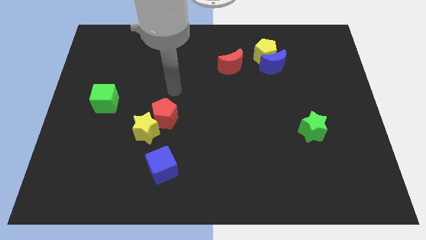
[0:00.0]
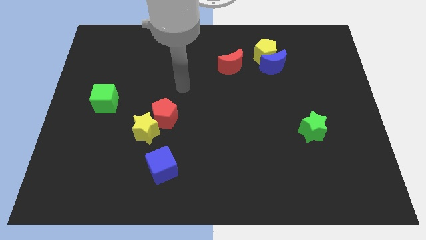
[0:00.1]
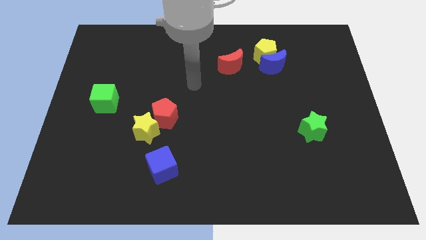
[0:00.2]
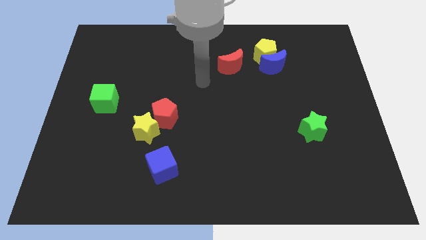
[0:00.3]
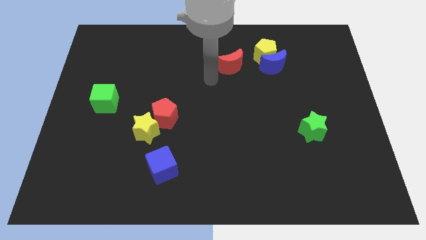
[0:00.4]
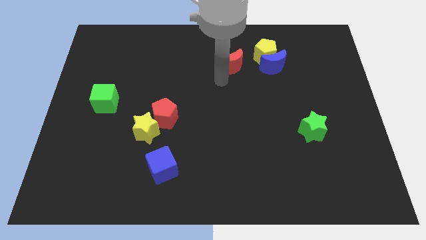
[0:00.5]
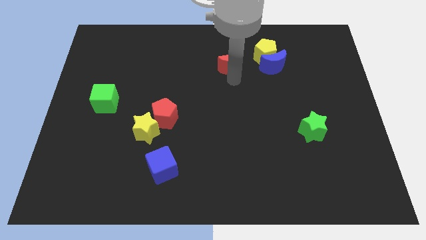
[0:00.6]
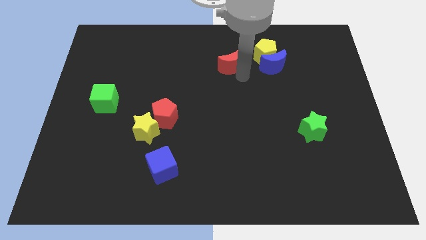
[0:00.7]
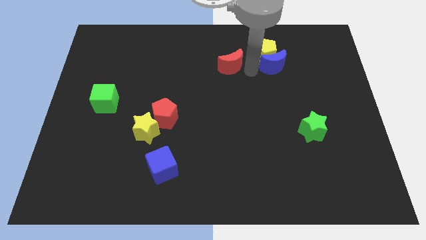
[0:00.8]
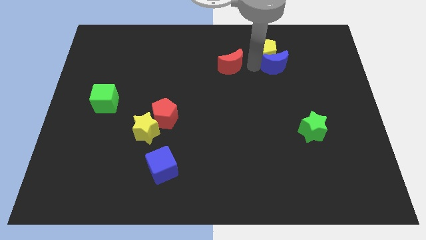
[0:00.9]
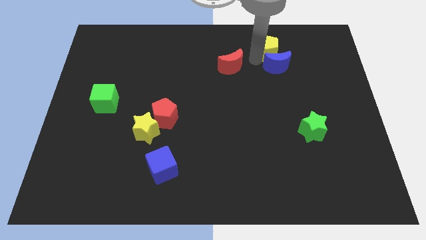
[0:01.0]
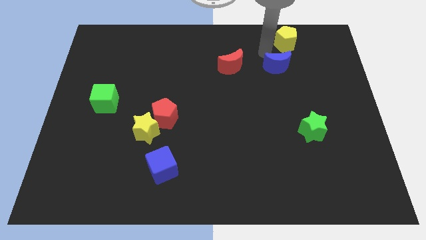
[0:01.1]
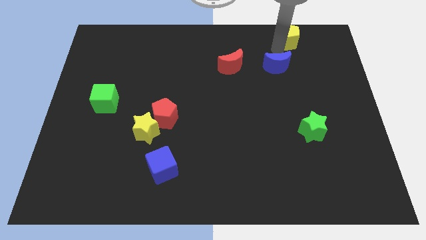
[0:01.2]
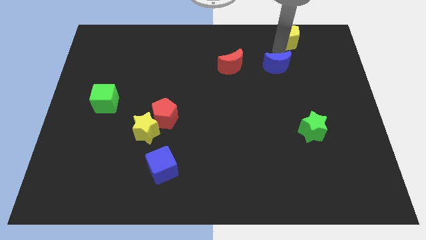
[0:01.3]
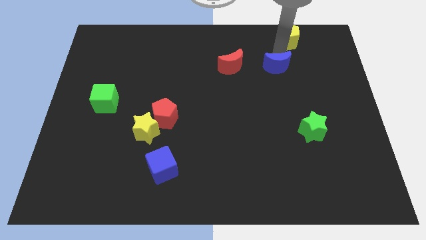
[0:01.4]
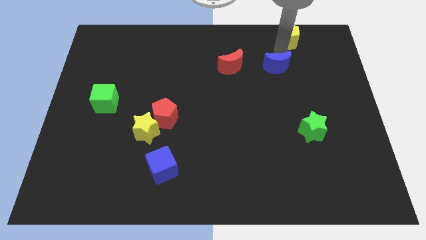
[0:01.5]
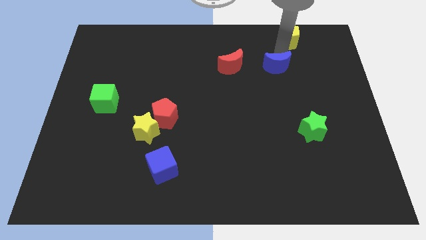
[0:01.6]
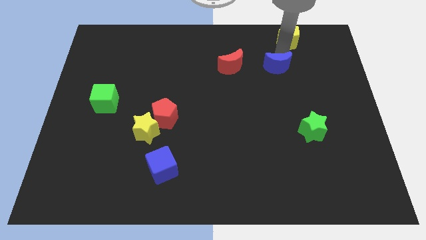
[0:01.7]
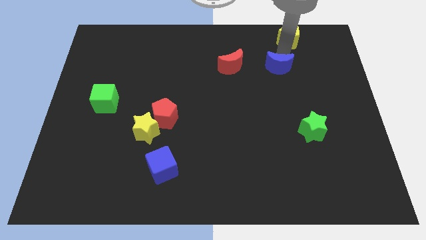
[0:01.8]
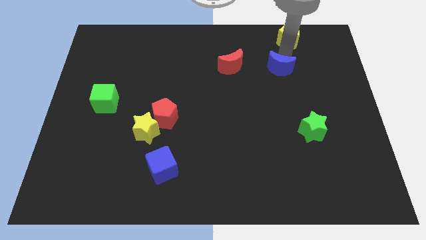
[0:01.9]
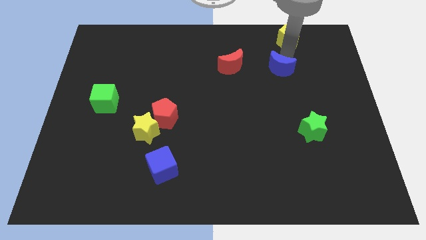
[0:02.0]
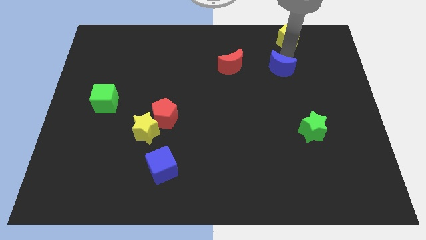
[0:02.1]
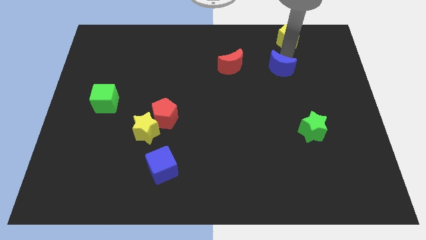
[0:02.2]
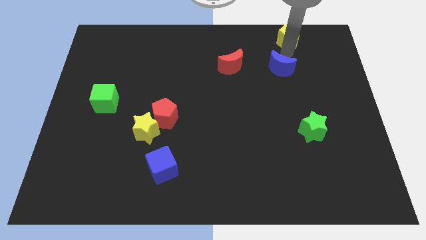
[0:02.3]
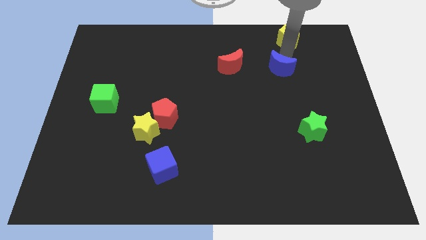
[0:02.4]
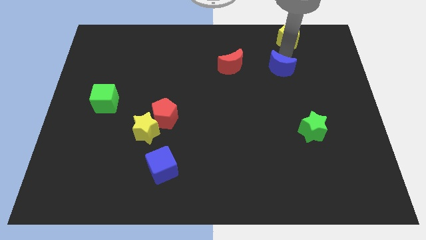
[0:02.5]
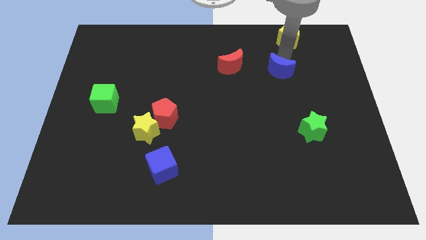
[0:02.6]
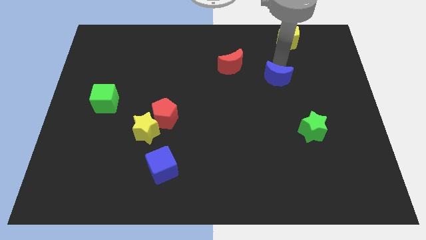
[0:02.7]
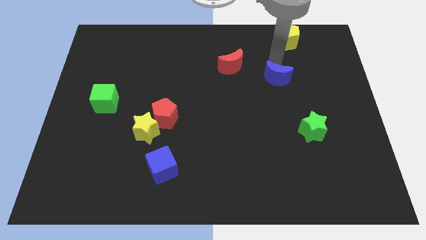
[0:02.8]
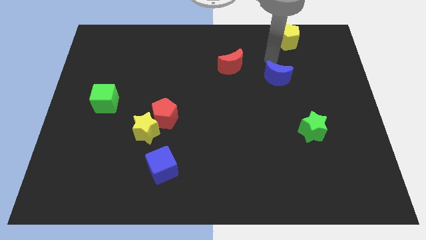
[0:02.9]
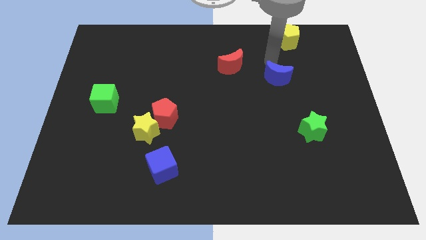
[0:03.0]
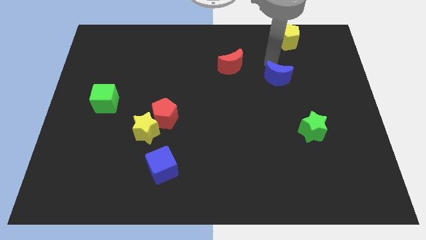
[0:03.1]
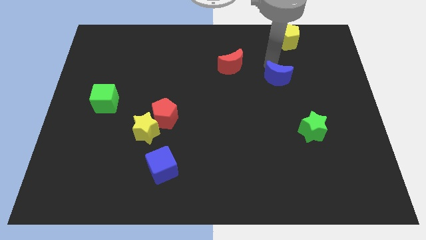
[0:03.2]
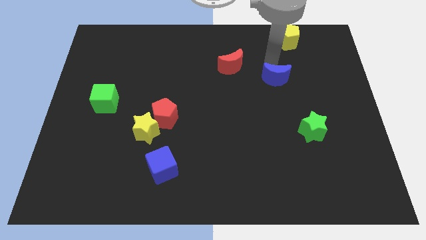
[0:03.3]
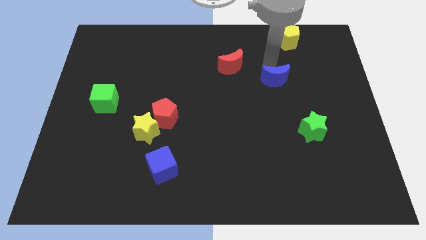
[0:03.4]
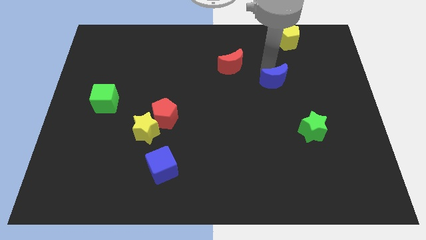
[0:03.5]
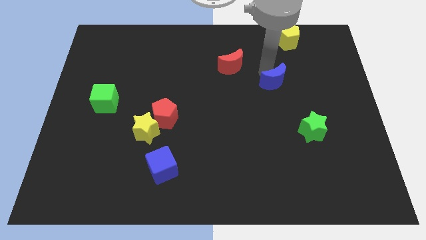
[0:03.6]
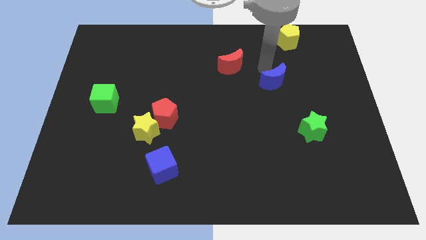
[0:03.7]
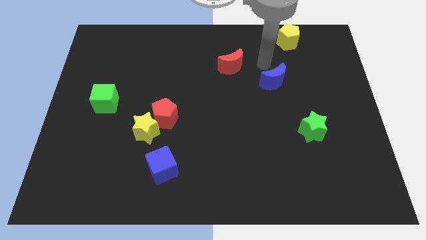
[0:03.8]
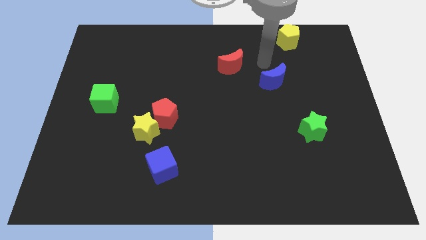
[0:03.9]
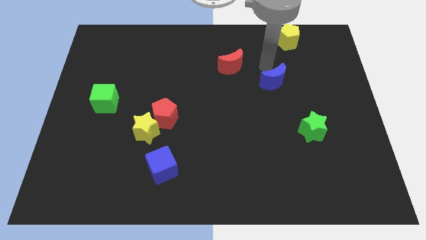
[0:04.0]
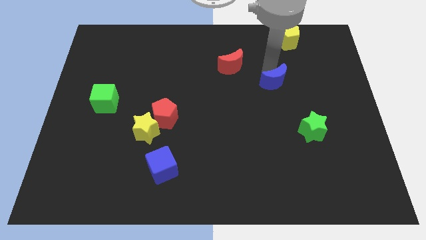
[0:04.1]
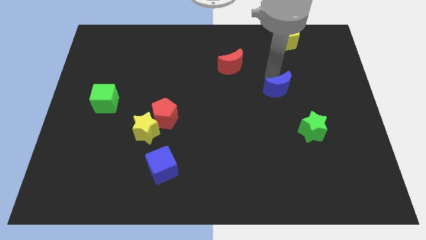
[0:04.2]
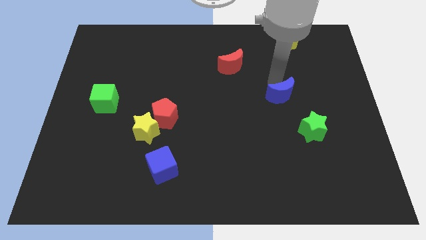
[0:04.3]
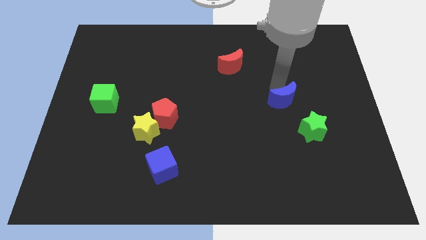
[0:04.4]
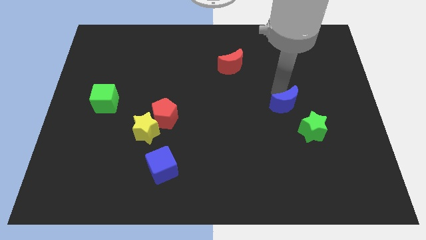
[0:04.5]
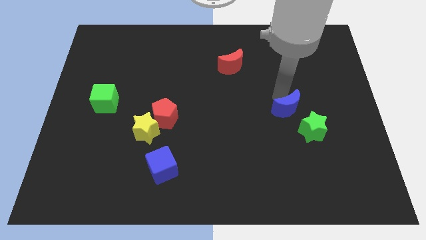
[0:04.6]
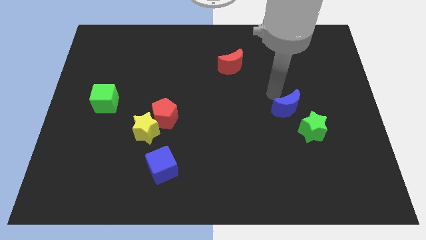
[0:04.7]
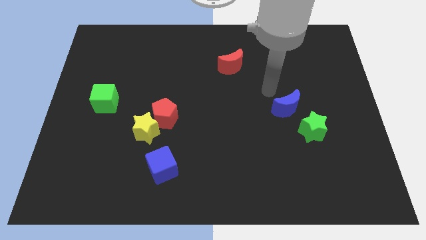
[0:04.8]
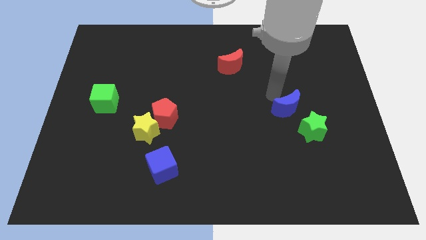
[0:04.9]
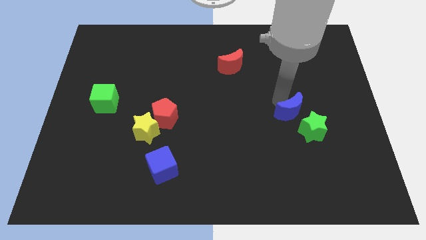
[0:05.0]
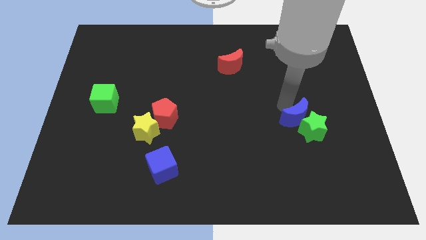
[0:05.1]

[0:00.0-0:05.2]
slide the blue moon towards the green star

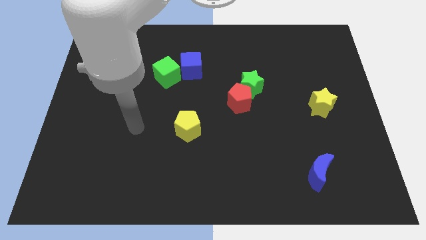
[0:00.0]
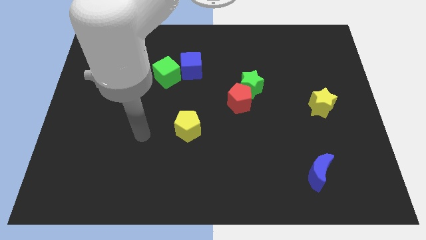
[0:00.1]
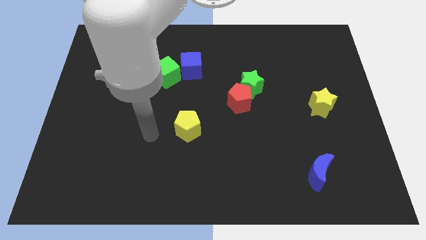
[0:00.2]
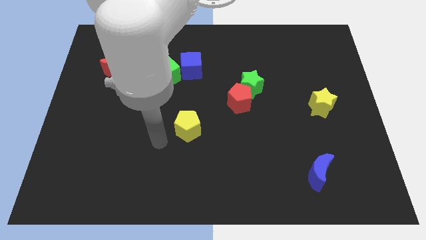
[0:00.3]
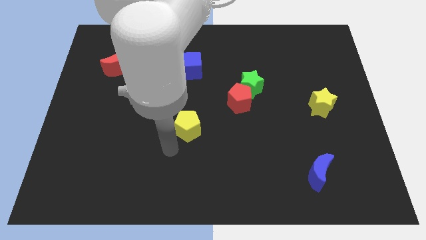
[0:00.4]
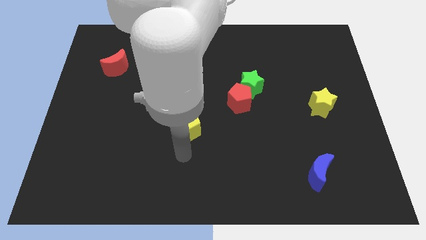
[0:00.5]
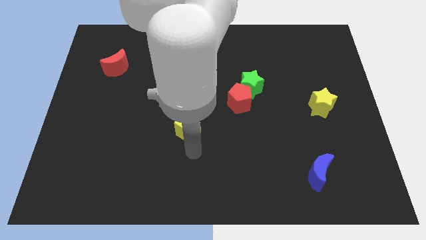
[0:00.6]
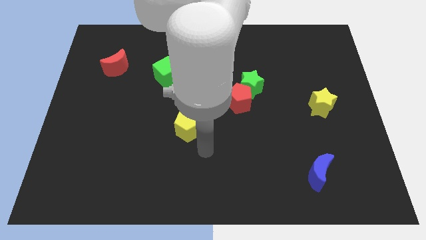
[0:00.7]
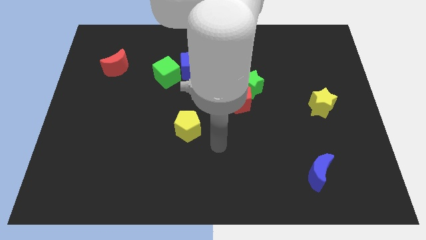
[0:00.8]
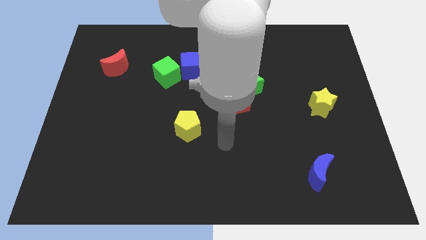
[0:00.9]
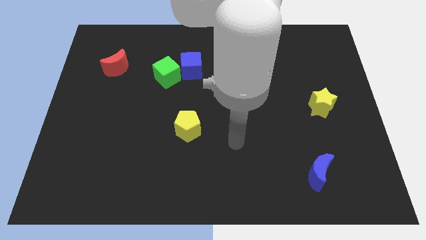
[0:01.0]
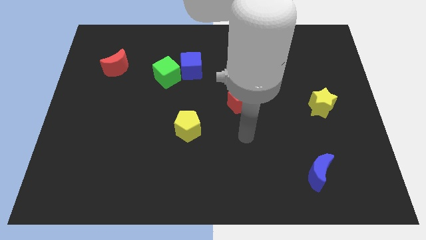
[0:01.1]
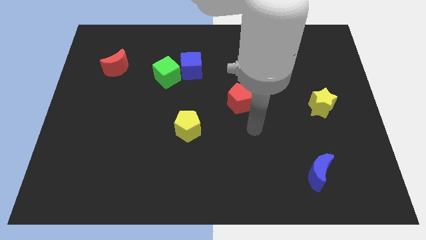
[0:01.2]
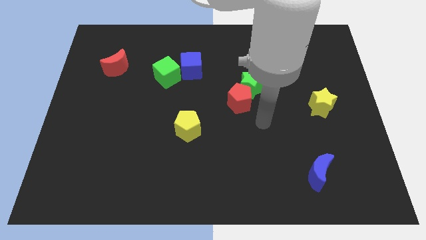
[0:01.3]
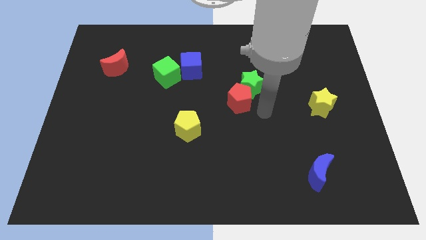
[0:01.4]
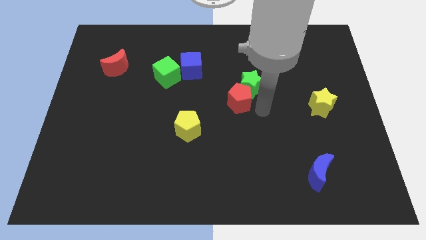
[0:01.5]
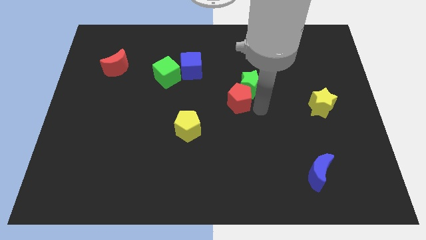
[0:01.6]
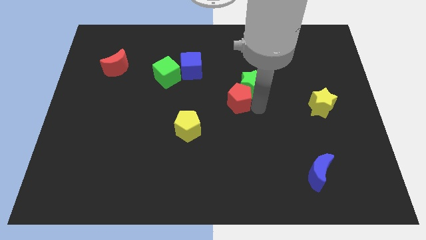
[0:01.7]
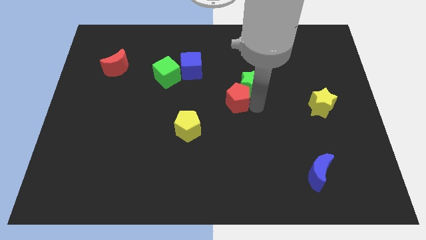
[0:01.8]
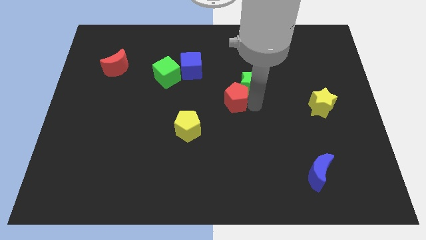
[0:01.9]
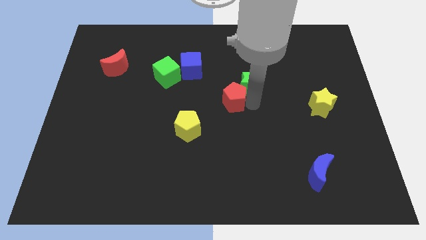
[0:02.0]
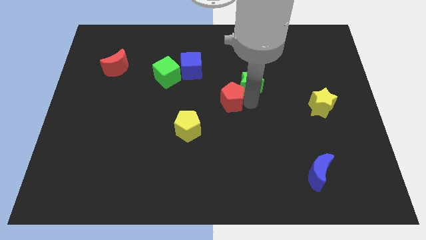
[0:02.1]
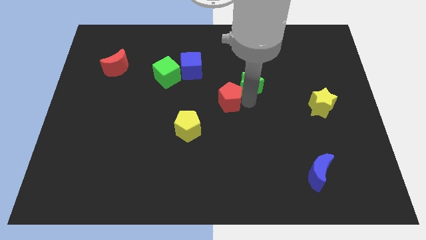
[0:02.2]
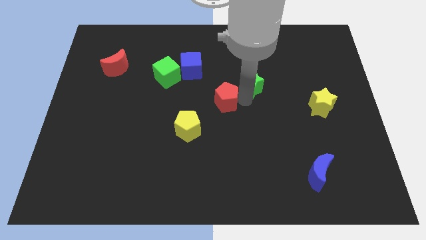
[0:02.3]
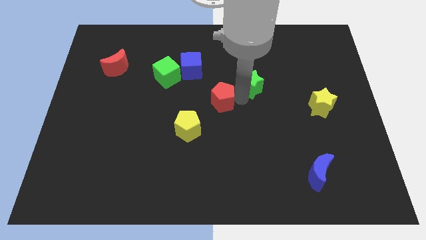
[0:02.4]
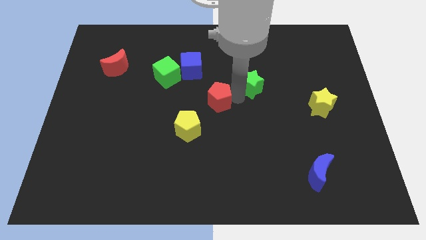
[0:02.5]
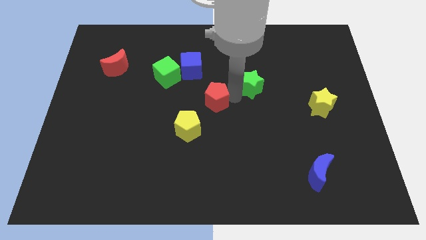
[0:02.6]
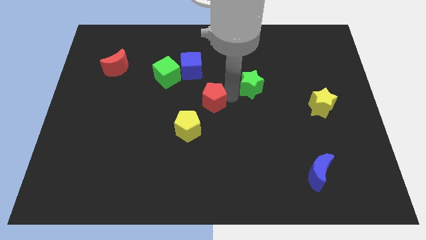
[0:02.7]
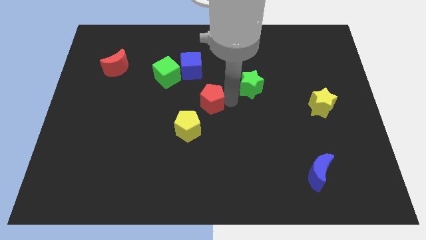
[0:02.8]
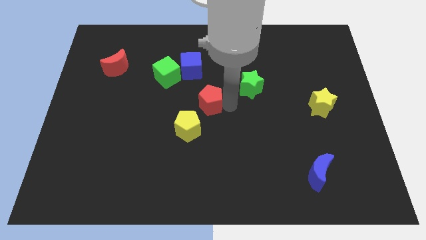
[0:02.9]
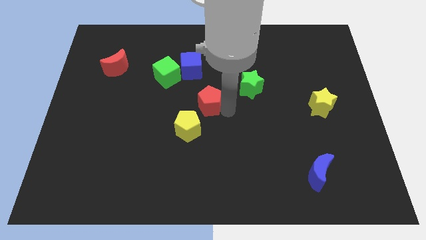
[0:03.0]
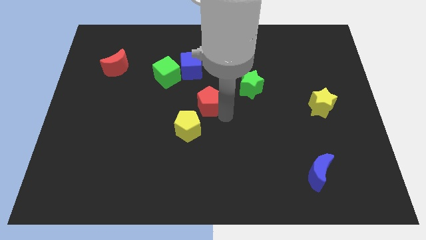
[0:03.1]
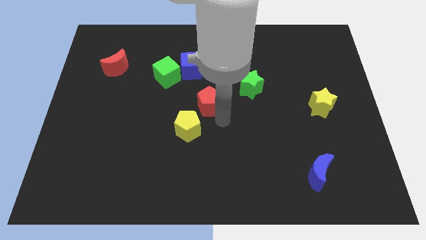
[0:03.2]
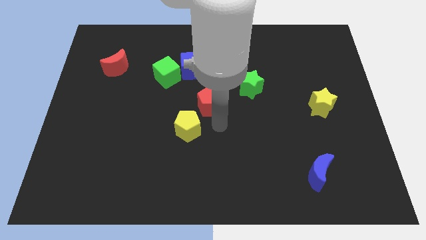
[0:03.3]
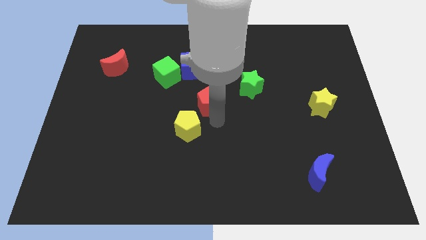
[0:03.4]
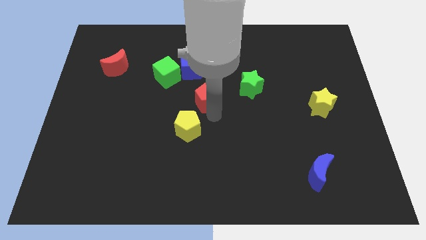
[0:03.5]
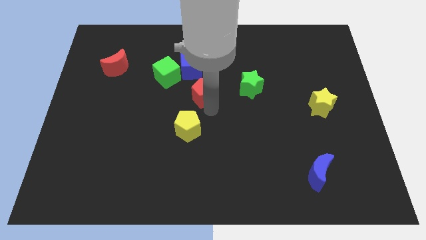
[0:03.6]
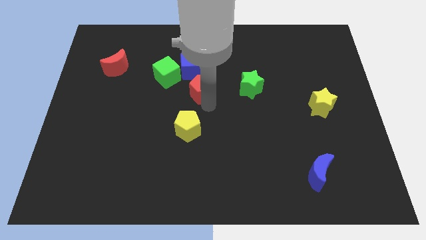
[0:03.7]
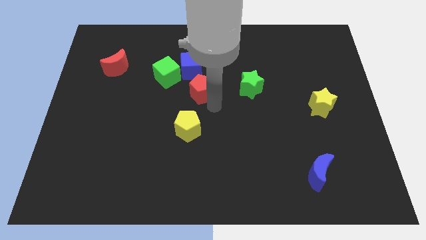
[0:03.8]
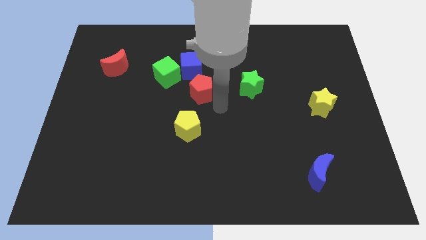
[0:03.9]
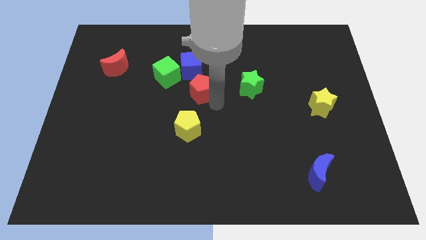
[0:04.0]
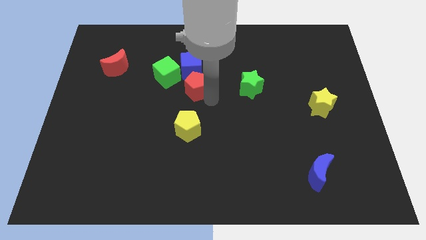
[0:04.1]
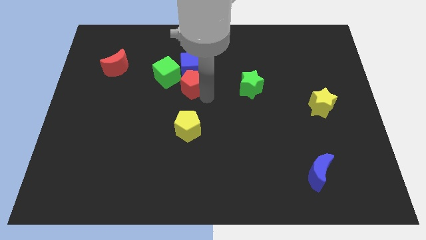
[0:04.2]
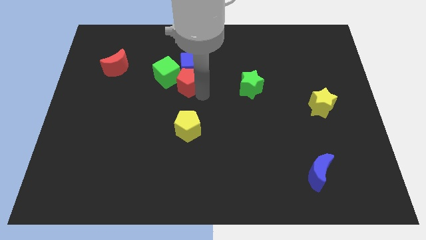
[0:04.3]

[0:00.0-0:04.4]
put the red pentagon next to the green cube
